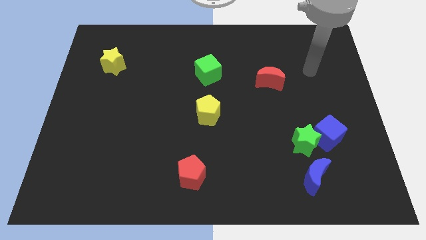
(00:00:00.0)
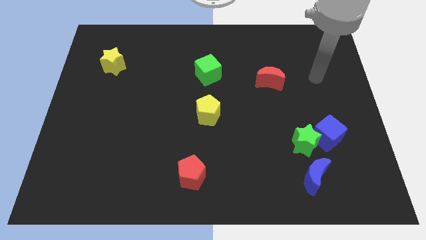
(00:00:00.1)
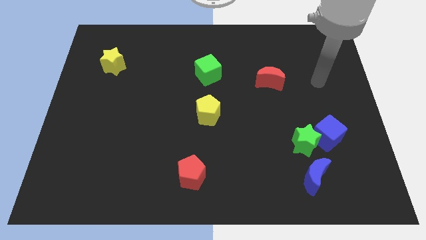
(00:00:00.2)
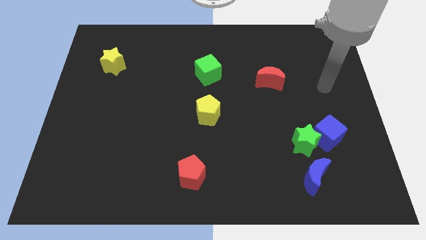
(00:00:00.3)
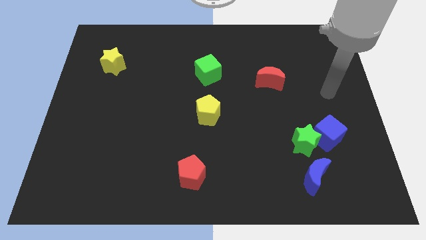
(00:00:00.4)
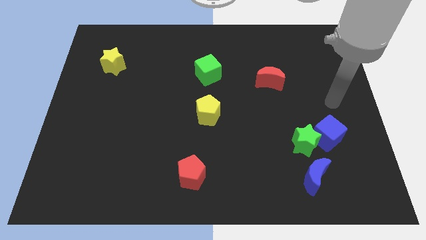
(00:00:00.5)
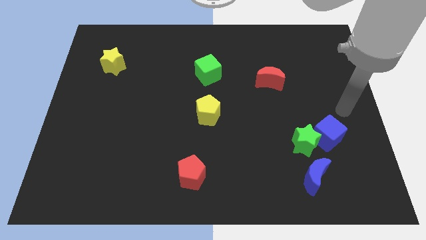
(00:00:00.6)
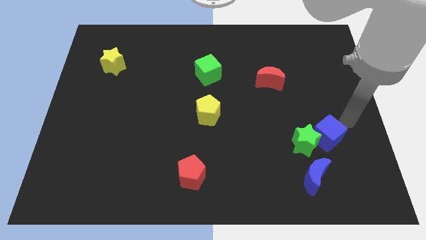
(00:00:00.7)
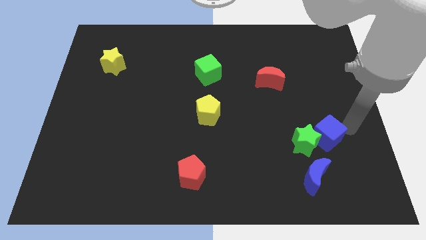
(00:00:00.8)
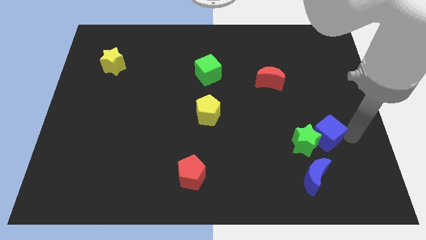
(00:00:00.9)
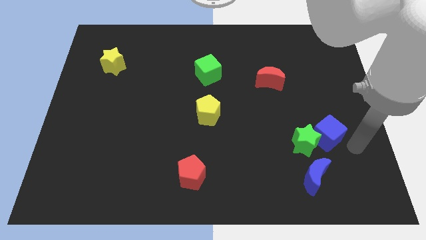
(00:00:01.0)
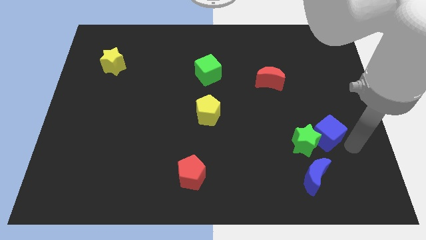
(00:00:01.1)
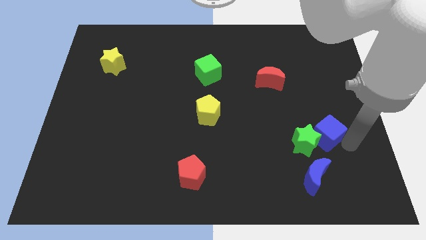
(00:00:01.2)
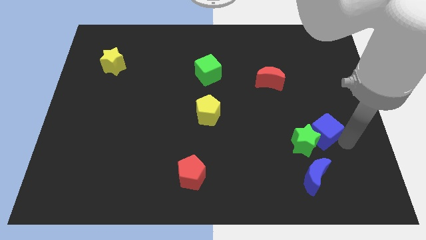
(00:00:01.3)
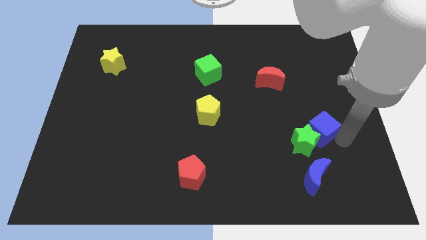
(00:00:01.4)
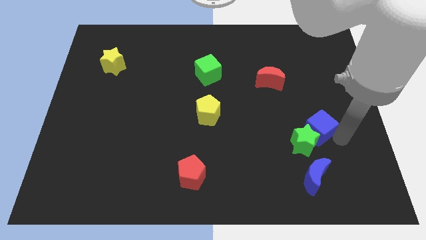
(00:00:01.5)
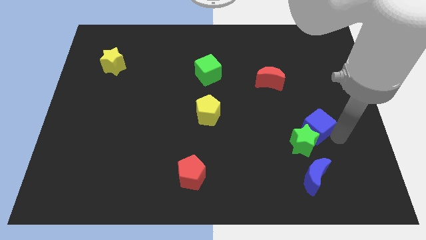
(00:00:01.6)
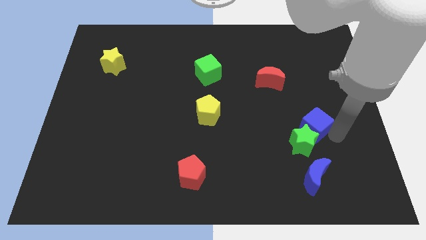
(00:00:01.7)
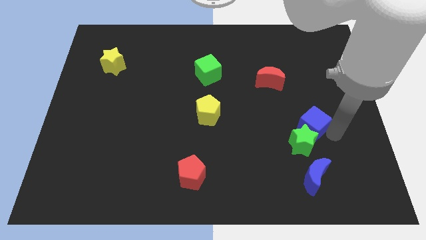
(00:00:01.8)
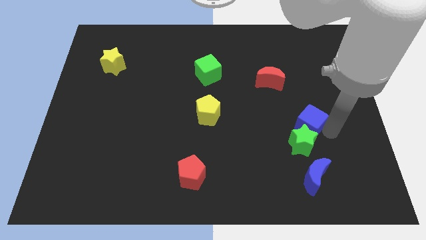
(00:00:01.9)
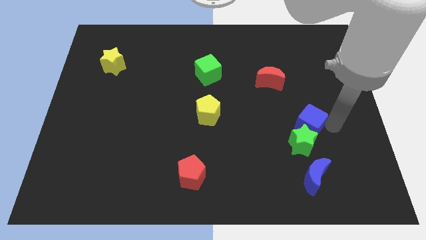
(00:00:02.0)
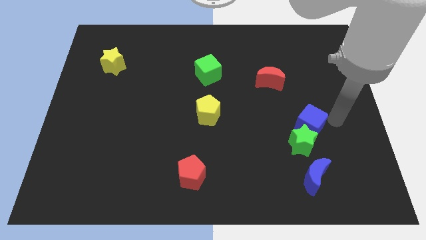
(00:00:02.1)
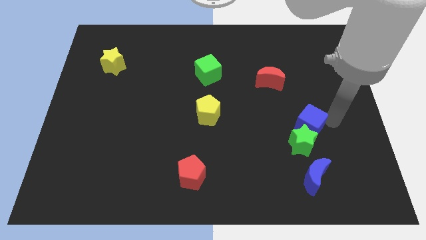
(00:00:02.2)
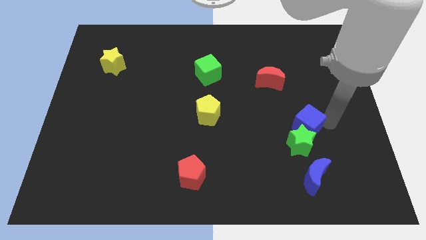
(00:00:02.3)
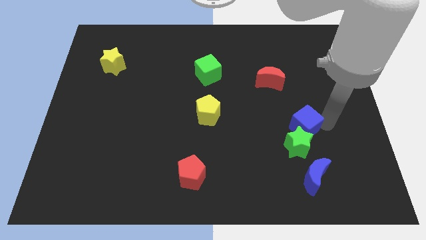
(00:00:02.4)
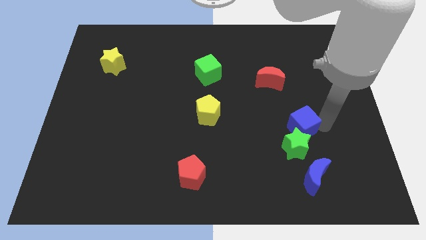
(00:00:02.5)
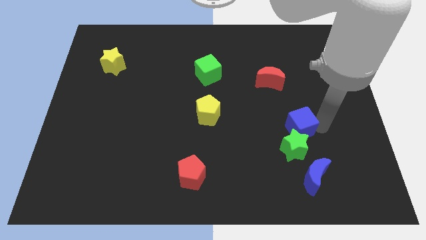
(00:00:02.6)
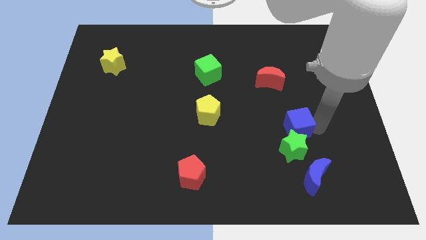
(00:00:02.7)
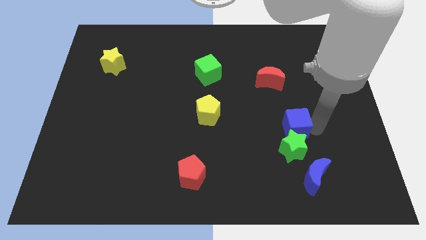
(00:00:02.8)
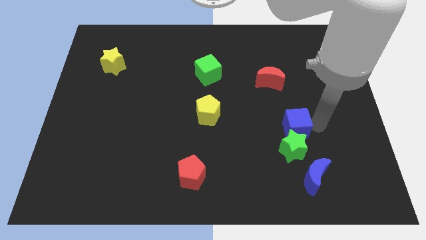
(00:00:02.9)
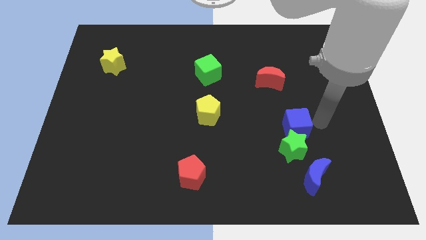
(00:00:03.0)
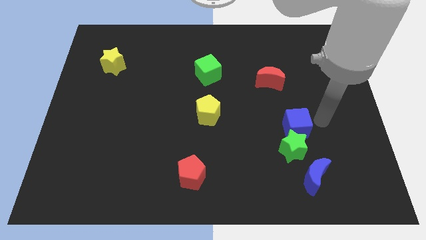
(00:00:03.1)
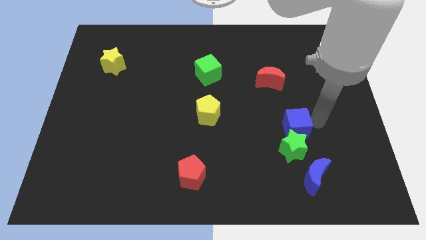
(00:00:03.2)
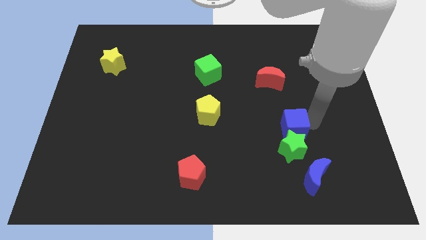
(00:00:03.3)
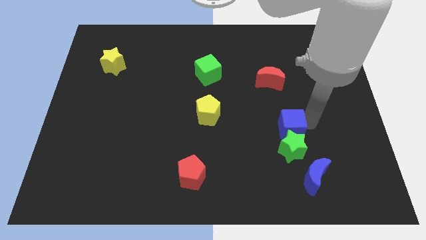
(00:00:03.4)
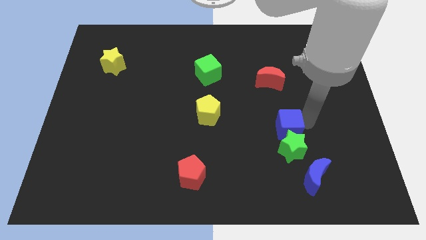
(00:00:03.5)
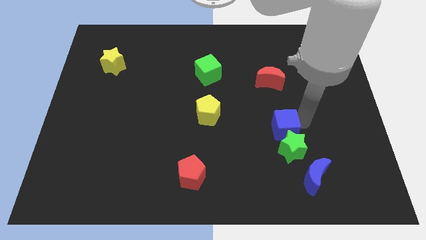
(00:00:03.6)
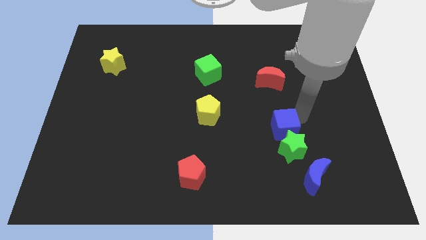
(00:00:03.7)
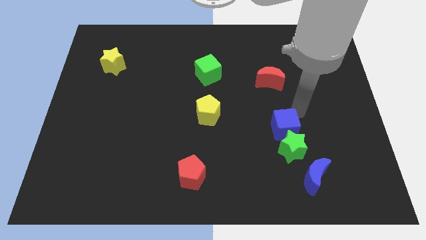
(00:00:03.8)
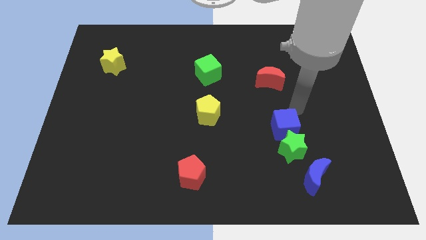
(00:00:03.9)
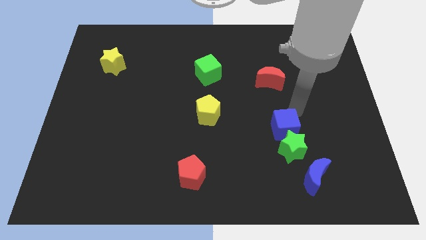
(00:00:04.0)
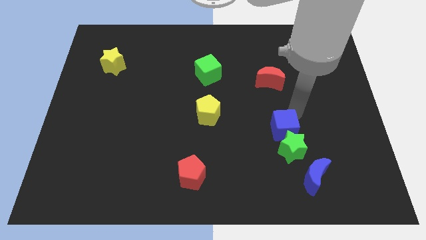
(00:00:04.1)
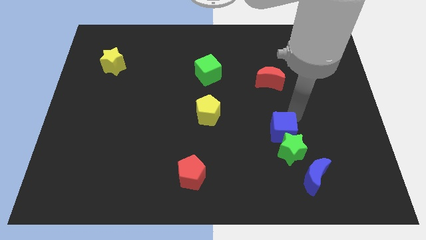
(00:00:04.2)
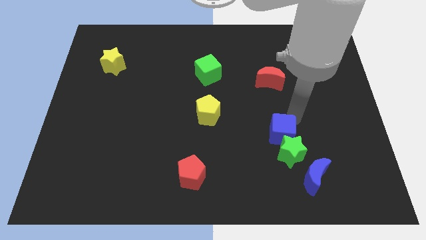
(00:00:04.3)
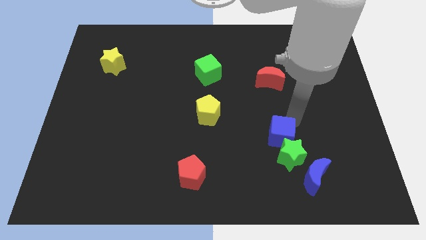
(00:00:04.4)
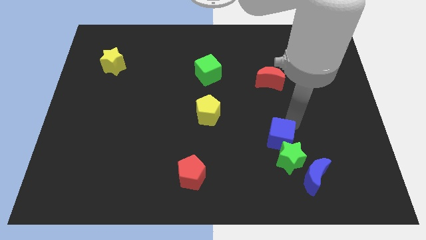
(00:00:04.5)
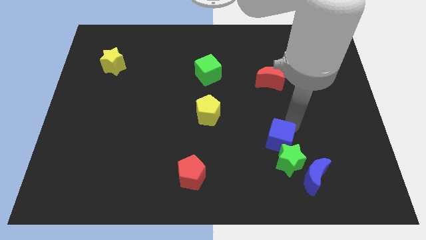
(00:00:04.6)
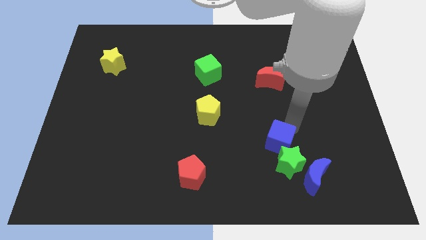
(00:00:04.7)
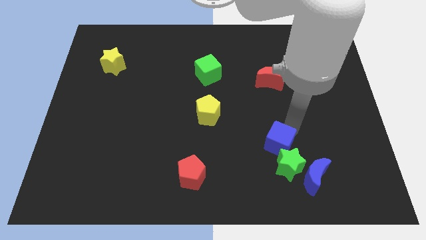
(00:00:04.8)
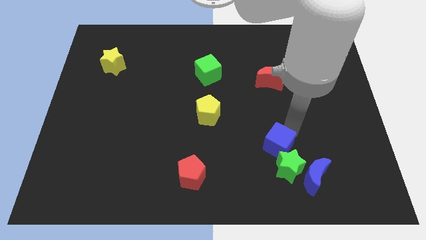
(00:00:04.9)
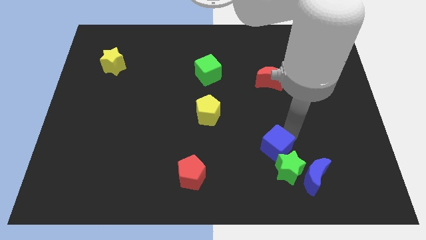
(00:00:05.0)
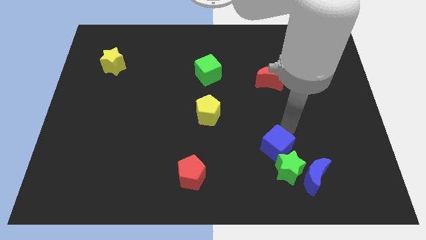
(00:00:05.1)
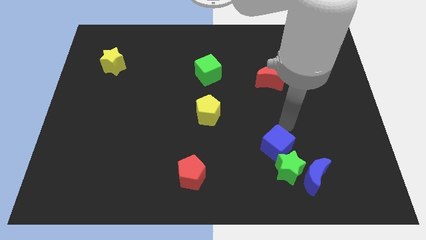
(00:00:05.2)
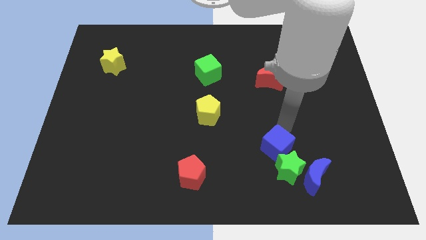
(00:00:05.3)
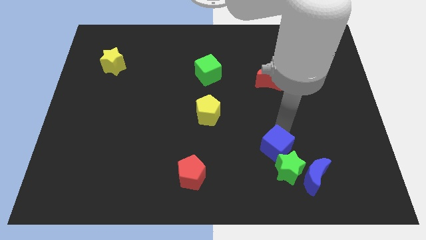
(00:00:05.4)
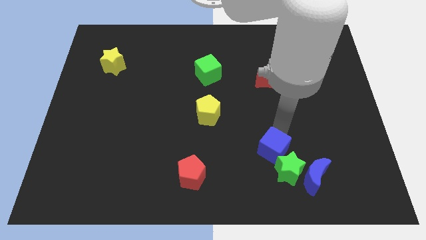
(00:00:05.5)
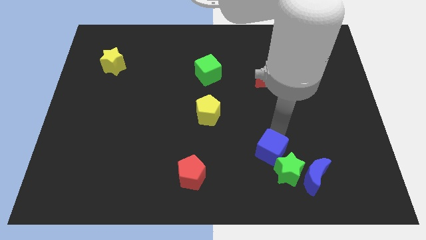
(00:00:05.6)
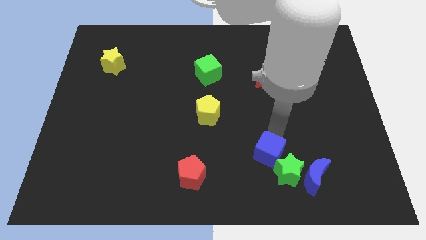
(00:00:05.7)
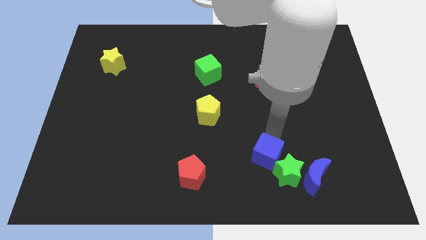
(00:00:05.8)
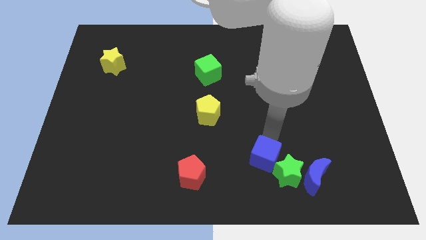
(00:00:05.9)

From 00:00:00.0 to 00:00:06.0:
slide the blue cube to the left of the blue moon

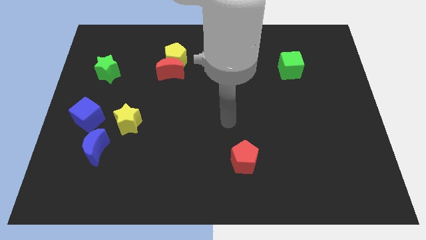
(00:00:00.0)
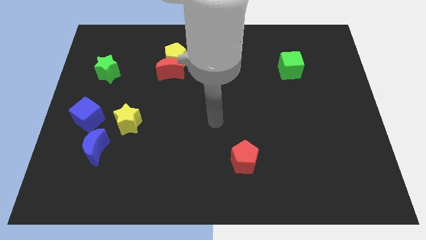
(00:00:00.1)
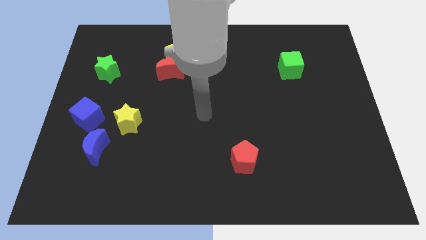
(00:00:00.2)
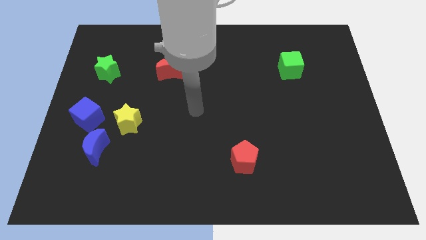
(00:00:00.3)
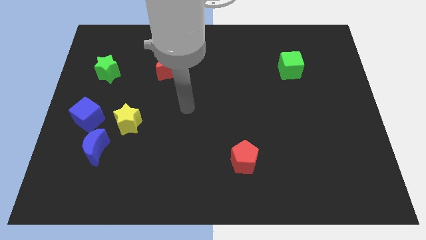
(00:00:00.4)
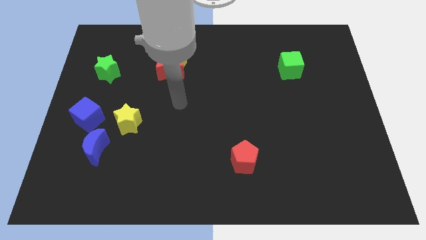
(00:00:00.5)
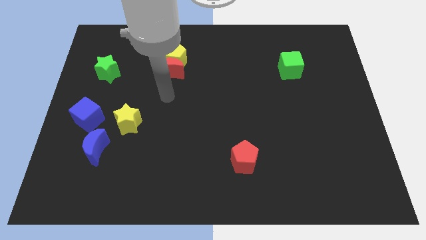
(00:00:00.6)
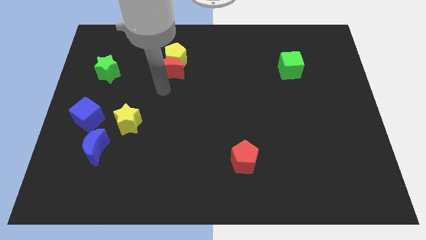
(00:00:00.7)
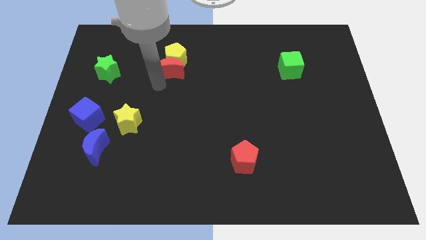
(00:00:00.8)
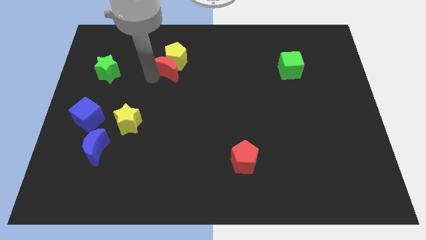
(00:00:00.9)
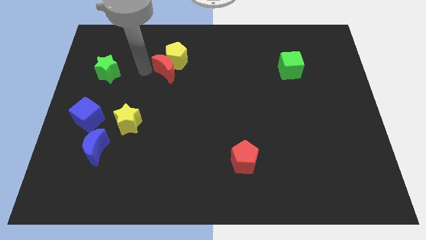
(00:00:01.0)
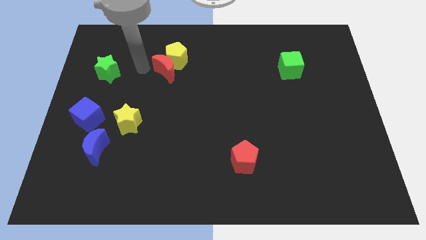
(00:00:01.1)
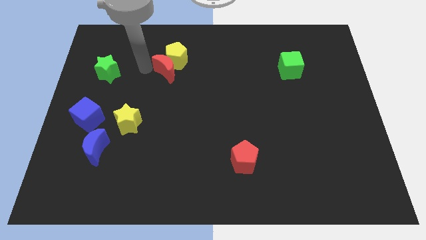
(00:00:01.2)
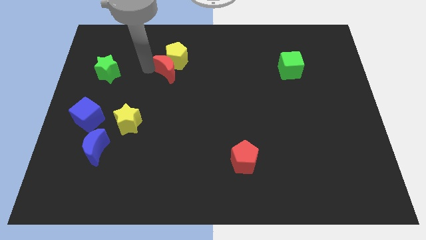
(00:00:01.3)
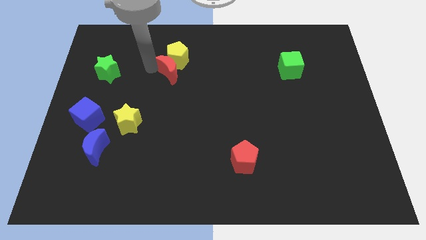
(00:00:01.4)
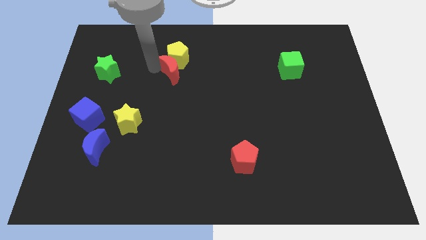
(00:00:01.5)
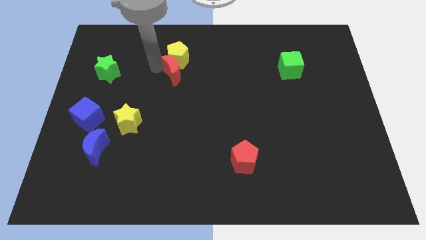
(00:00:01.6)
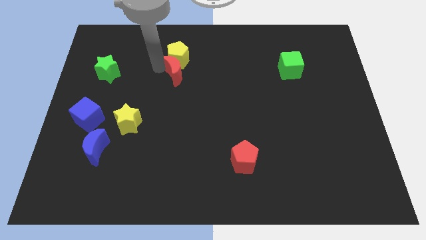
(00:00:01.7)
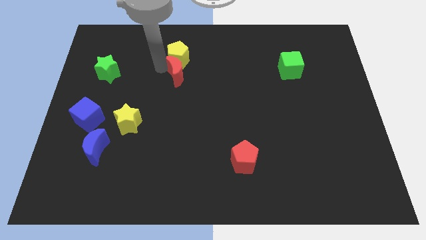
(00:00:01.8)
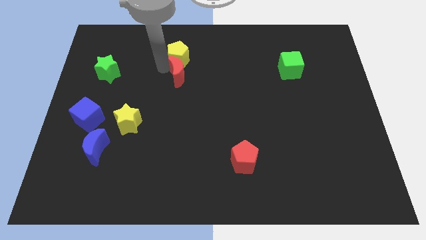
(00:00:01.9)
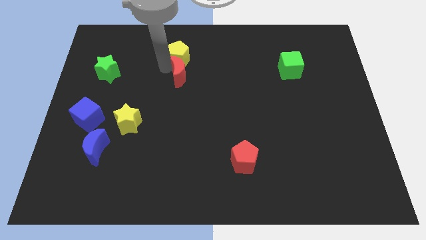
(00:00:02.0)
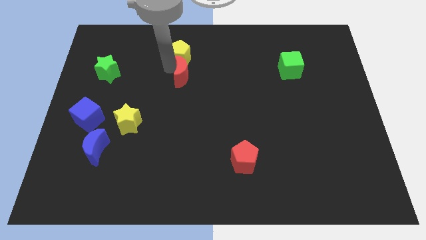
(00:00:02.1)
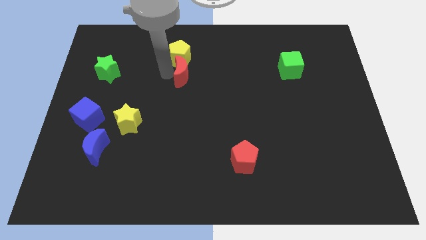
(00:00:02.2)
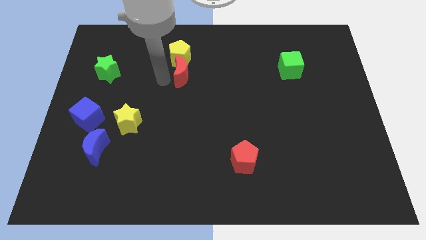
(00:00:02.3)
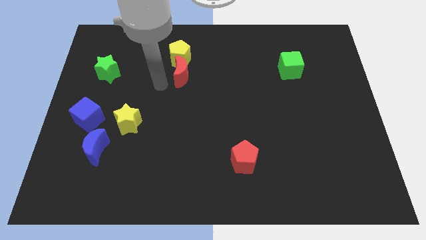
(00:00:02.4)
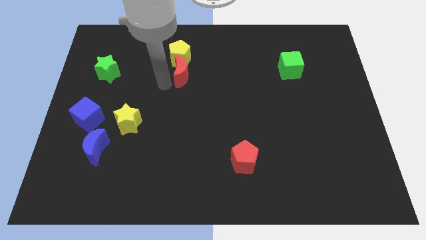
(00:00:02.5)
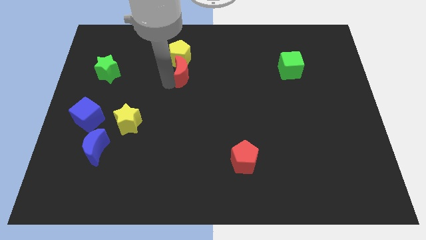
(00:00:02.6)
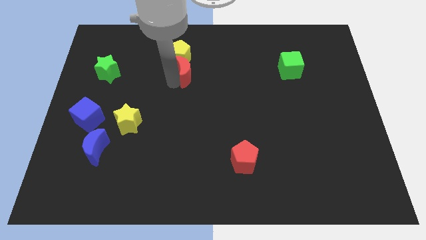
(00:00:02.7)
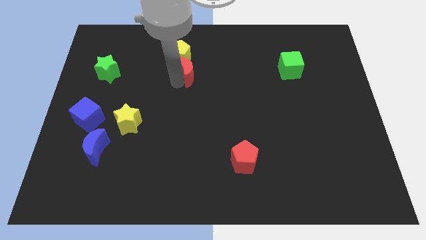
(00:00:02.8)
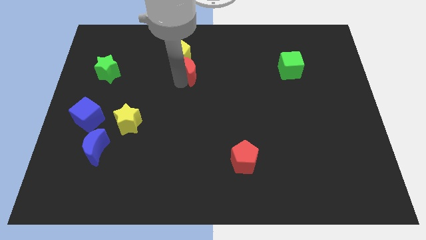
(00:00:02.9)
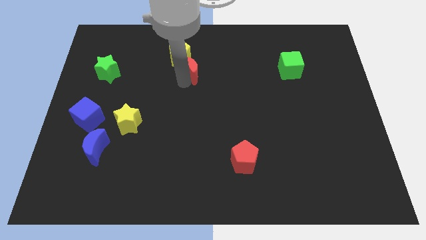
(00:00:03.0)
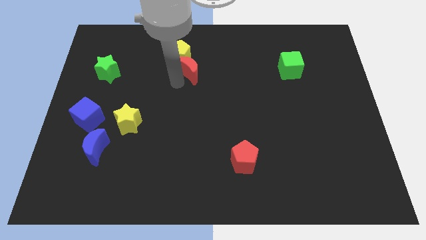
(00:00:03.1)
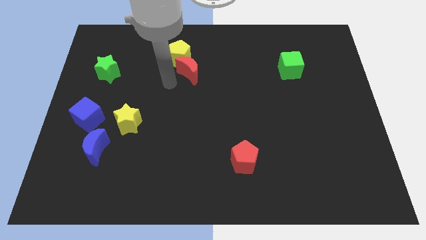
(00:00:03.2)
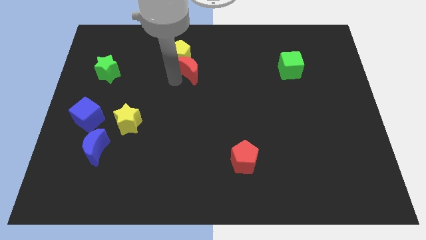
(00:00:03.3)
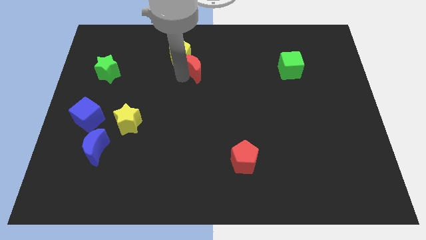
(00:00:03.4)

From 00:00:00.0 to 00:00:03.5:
slide the red moon right of the yellow pentagon
